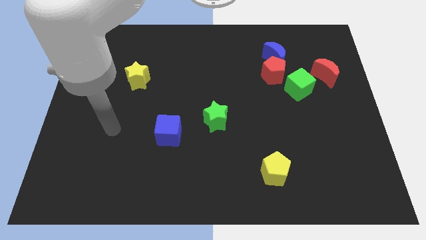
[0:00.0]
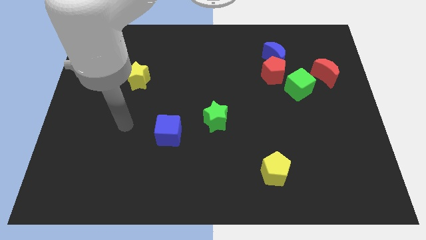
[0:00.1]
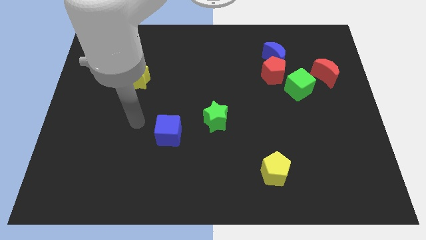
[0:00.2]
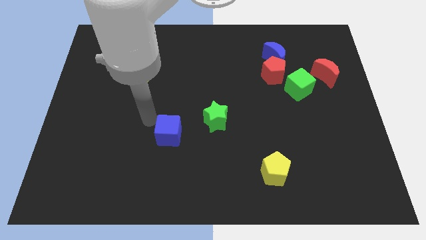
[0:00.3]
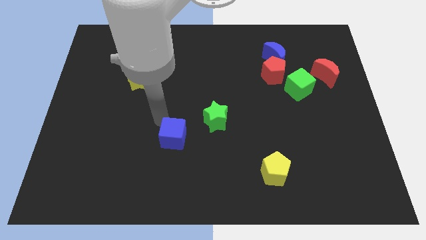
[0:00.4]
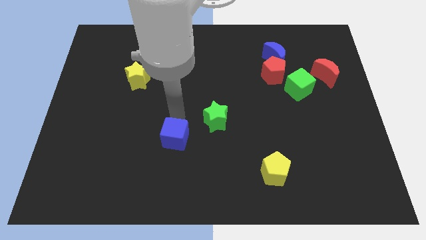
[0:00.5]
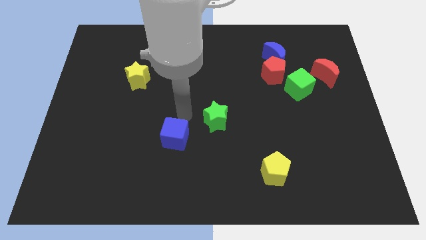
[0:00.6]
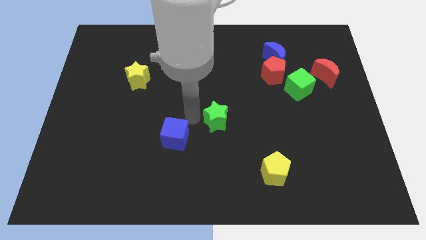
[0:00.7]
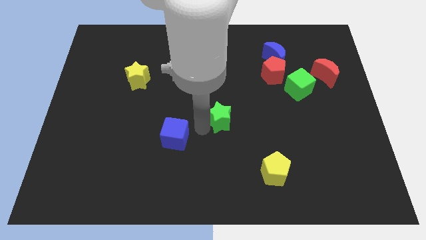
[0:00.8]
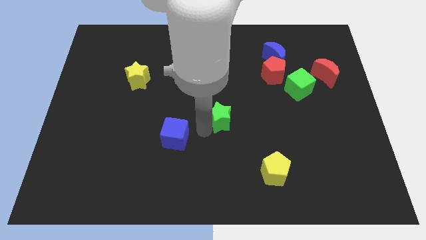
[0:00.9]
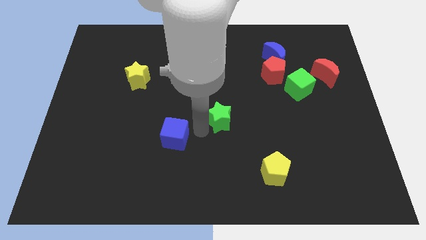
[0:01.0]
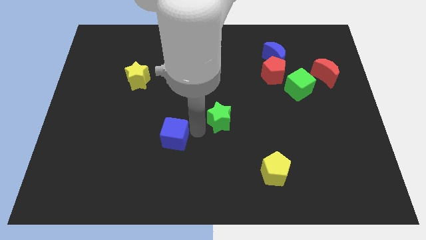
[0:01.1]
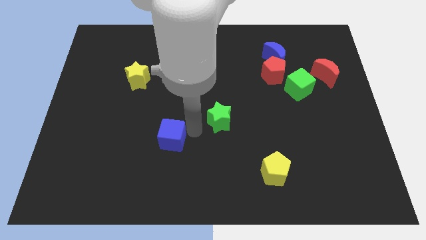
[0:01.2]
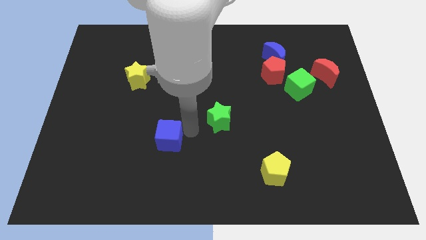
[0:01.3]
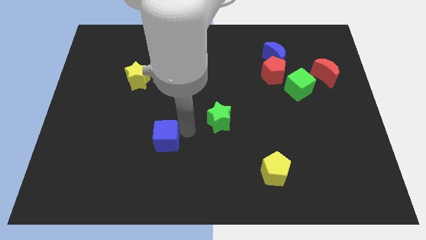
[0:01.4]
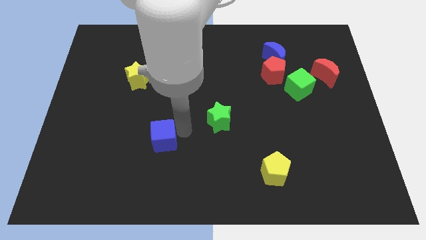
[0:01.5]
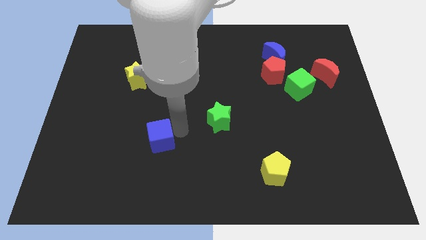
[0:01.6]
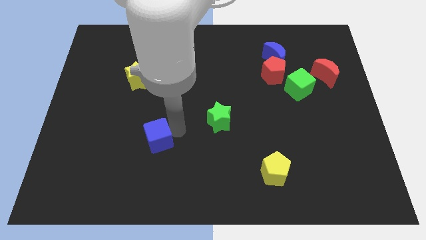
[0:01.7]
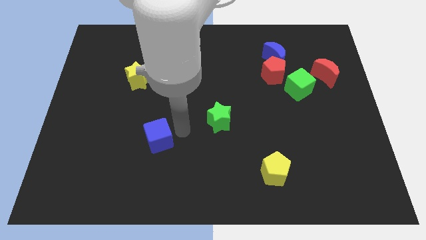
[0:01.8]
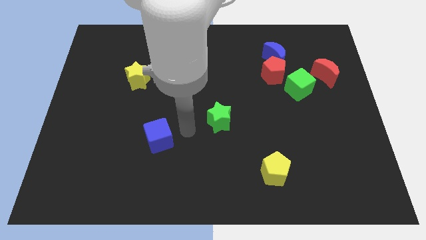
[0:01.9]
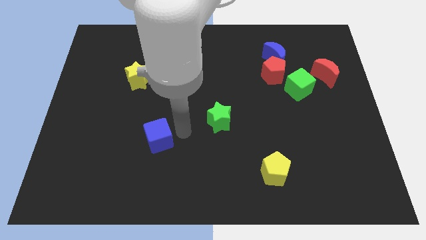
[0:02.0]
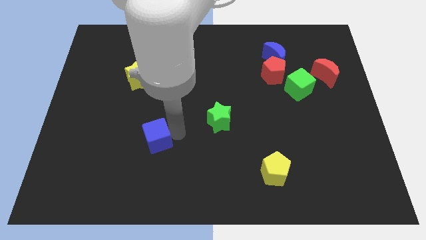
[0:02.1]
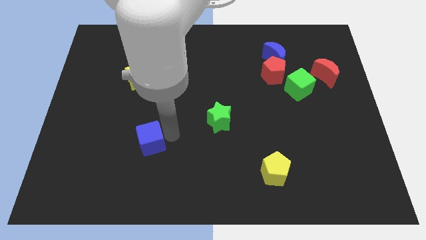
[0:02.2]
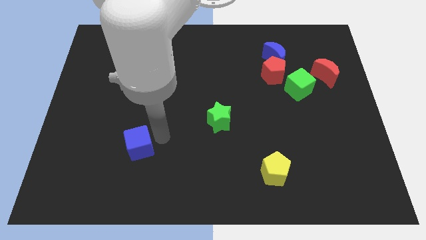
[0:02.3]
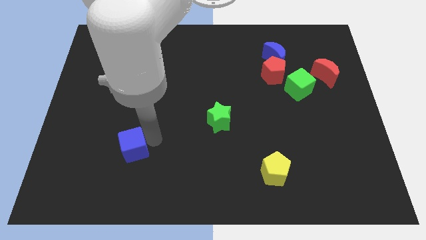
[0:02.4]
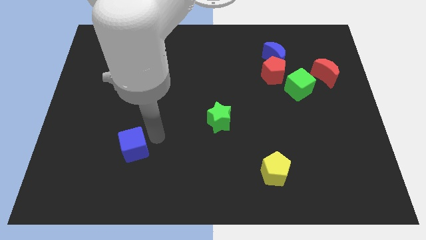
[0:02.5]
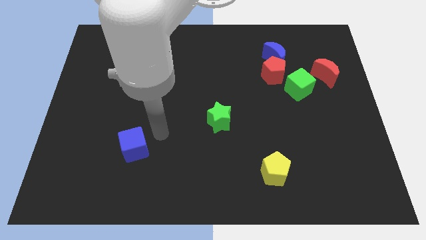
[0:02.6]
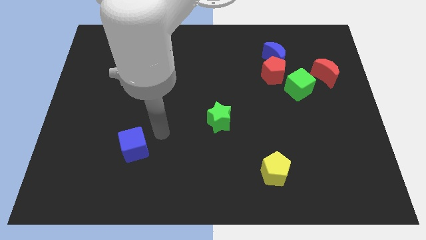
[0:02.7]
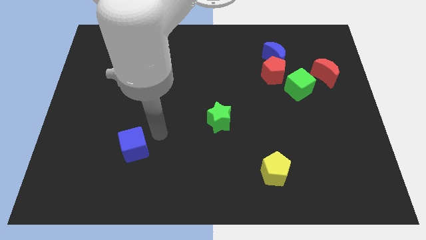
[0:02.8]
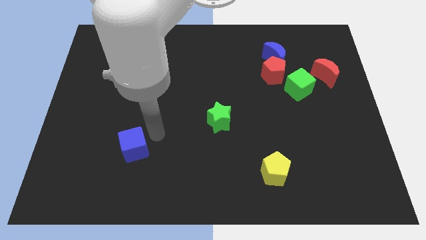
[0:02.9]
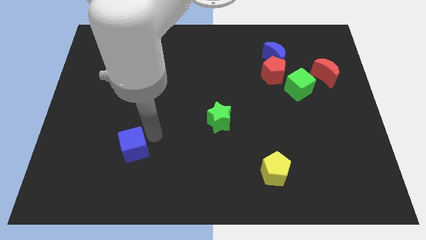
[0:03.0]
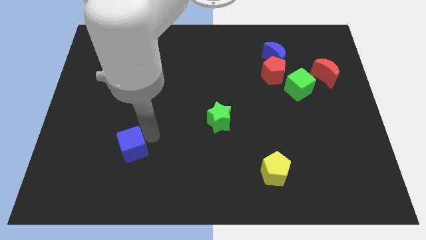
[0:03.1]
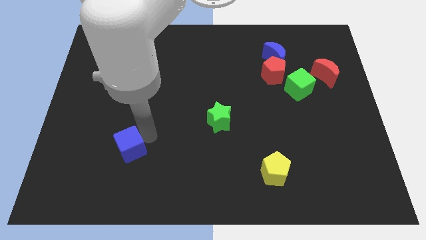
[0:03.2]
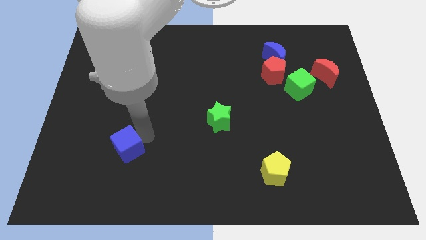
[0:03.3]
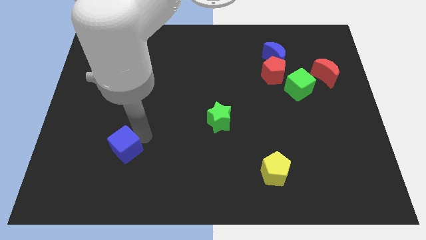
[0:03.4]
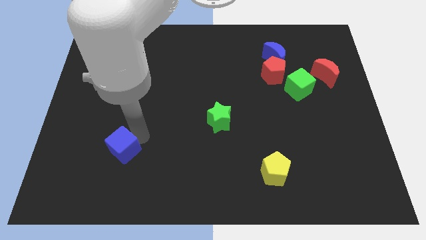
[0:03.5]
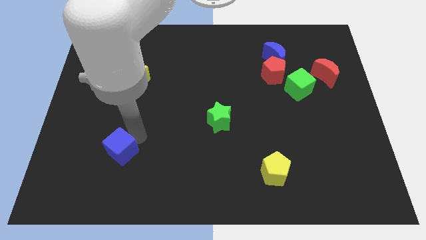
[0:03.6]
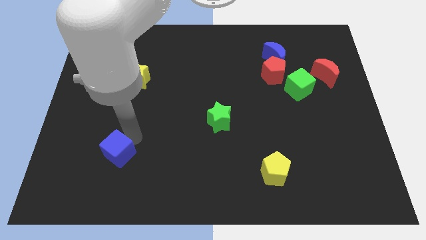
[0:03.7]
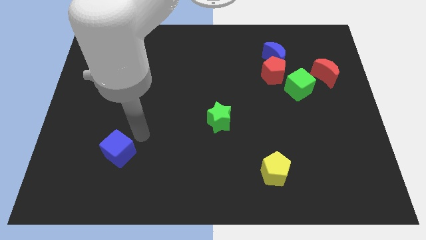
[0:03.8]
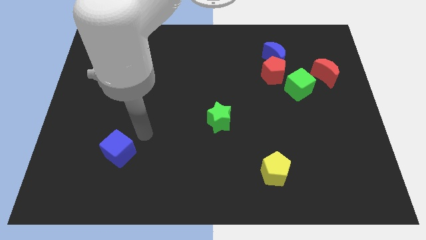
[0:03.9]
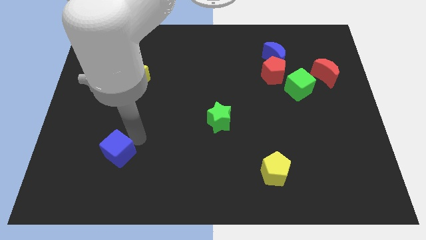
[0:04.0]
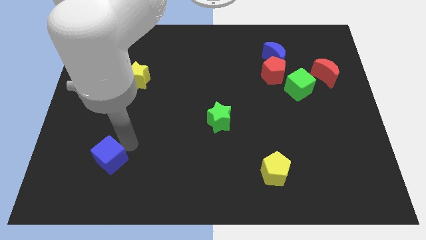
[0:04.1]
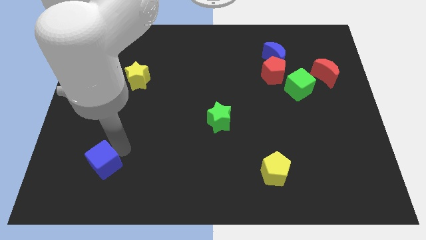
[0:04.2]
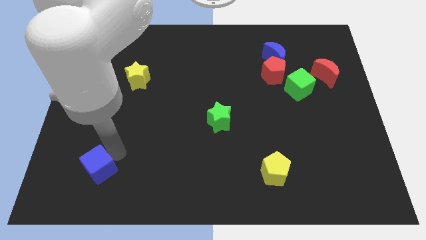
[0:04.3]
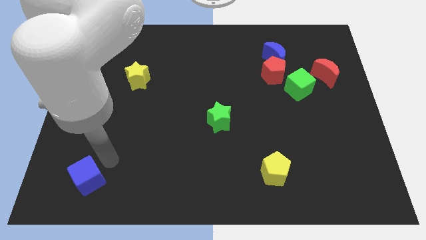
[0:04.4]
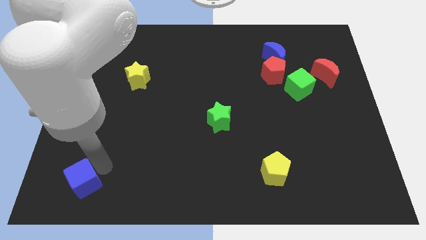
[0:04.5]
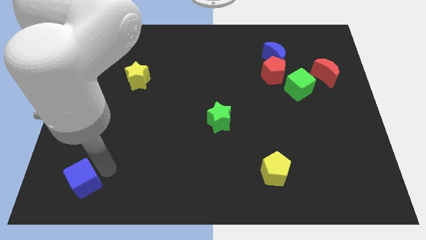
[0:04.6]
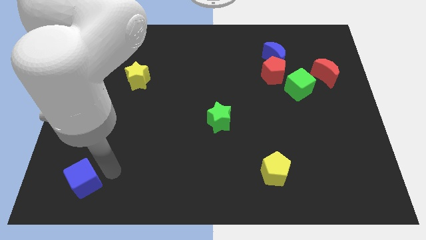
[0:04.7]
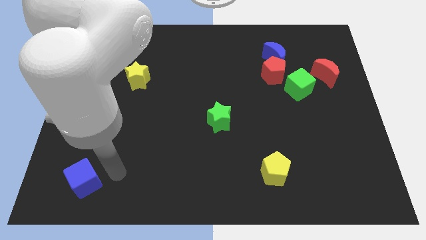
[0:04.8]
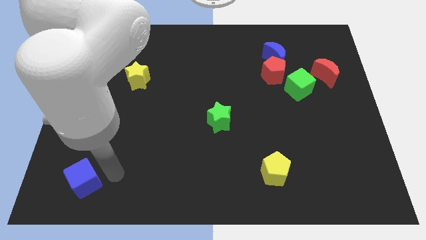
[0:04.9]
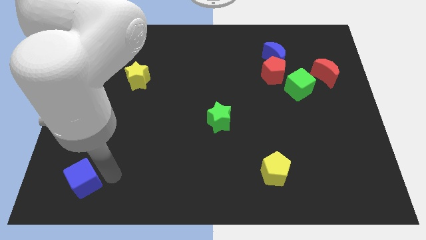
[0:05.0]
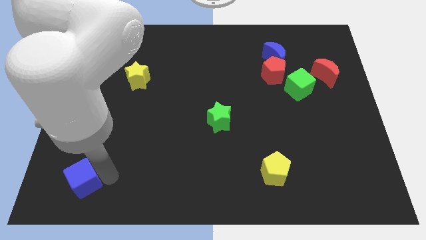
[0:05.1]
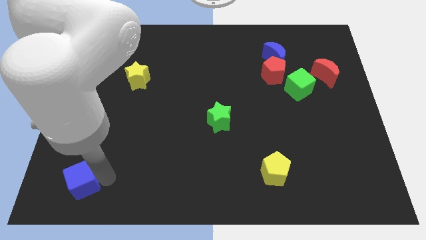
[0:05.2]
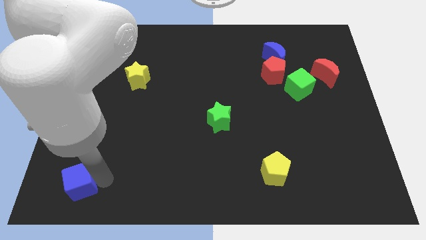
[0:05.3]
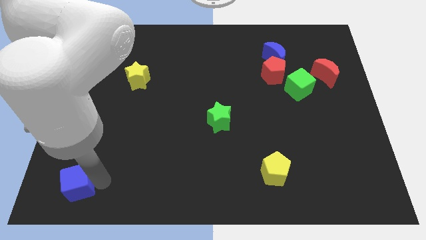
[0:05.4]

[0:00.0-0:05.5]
put the blue cube to the bottom left
